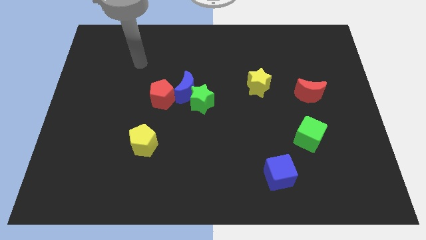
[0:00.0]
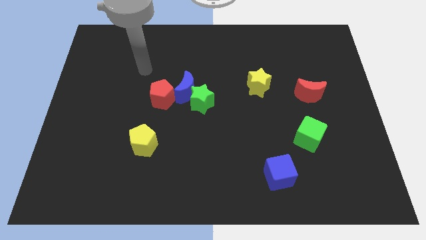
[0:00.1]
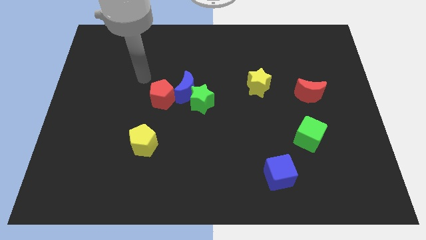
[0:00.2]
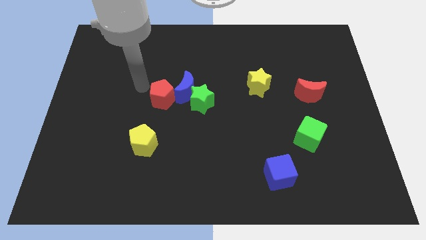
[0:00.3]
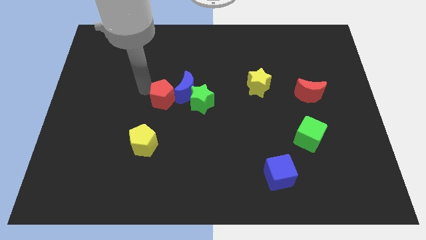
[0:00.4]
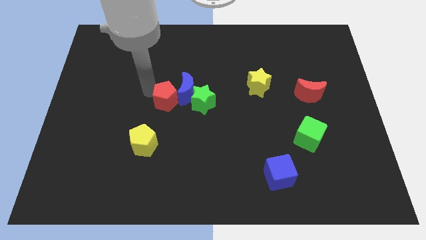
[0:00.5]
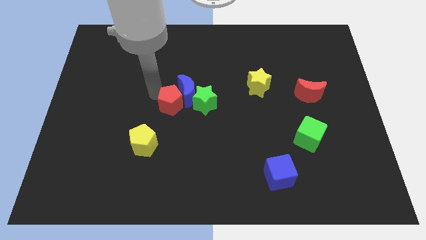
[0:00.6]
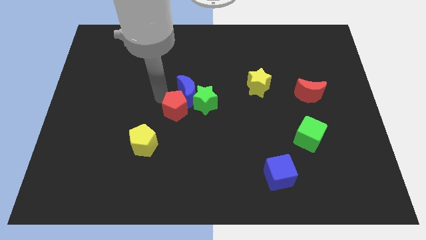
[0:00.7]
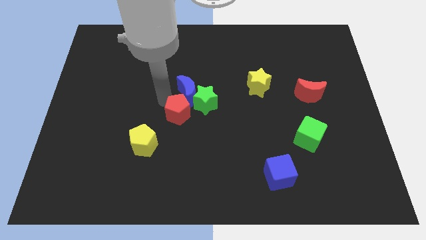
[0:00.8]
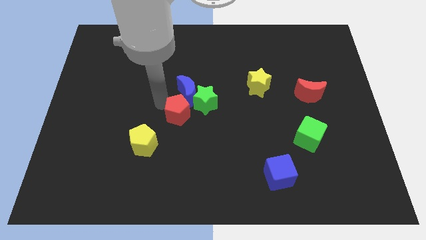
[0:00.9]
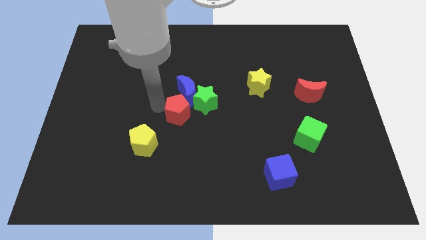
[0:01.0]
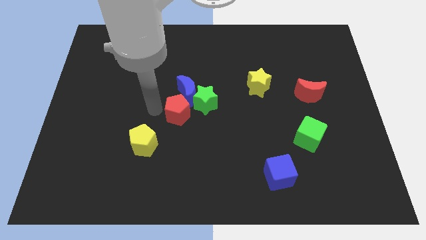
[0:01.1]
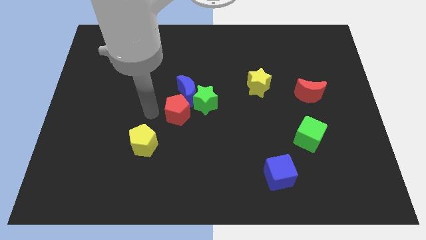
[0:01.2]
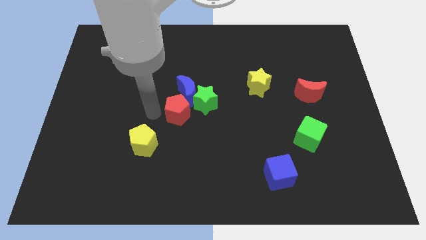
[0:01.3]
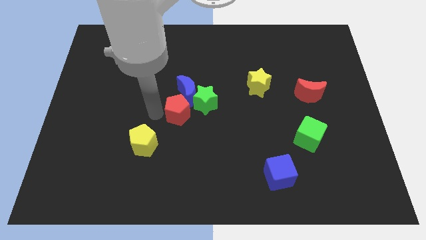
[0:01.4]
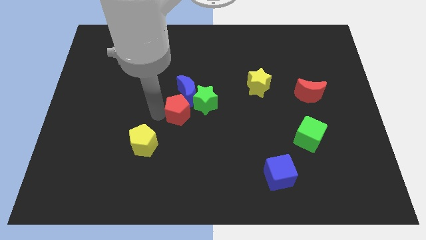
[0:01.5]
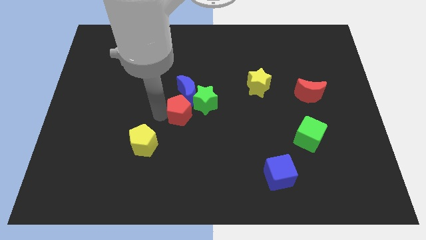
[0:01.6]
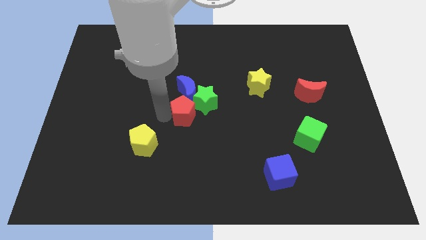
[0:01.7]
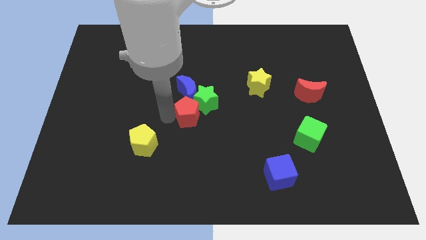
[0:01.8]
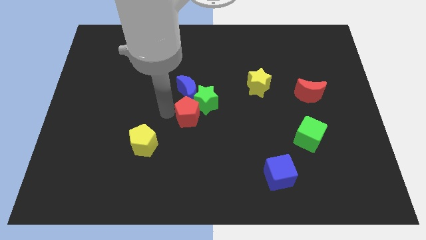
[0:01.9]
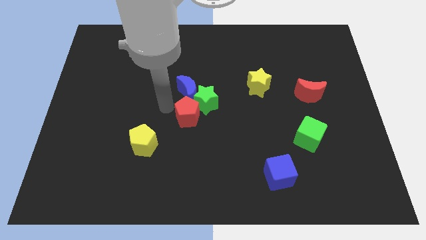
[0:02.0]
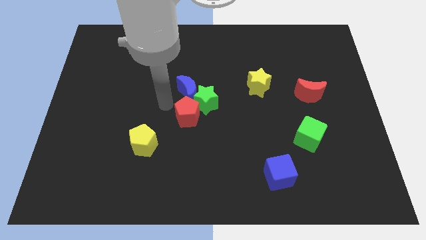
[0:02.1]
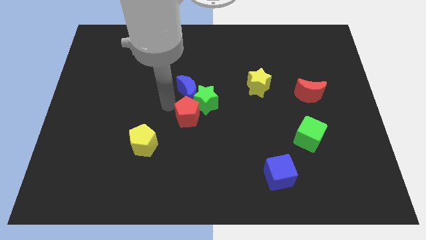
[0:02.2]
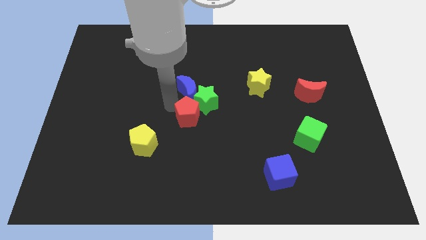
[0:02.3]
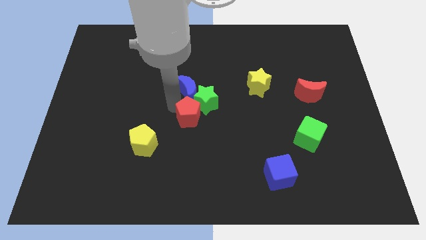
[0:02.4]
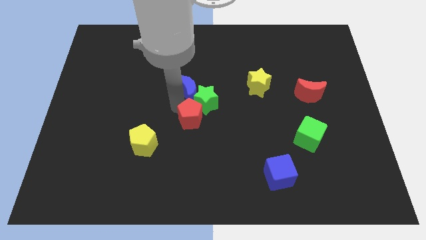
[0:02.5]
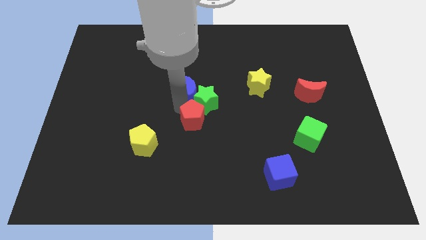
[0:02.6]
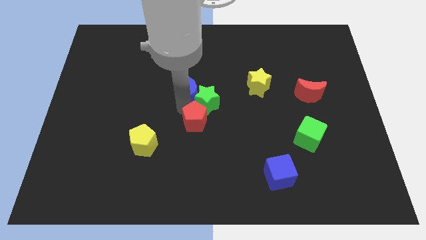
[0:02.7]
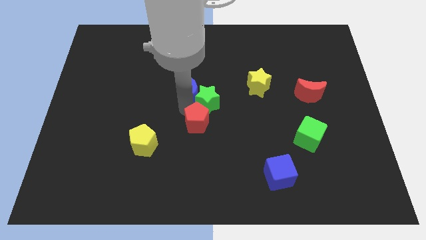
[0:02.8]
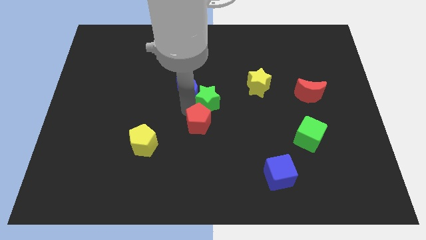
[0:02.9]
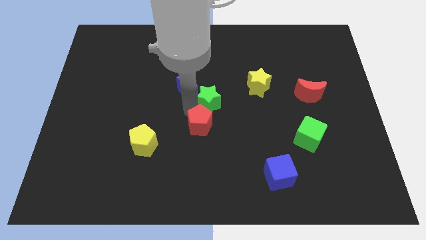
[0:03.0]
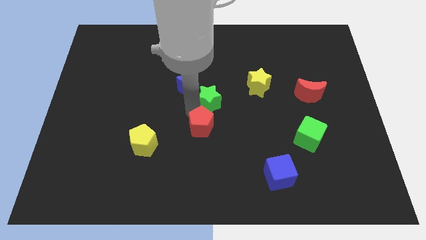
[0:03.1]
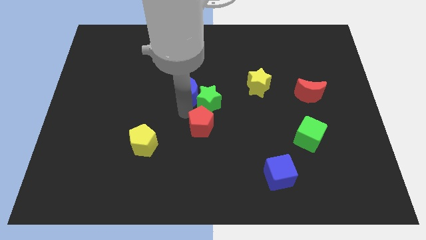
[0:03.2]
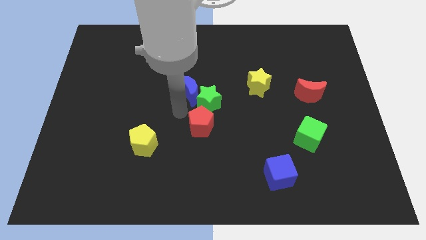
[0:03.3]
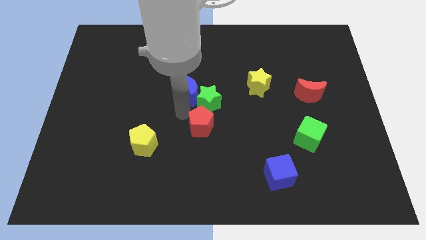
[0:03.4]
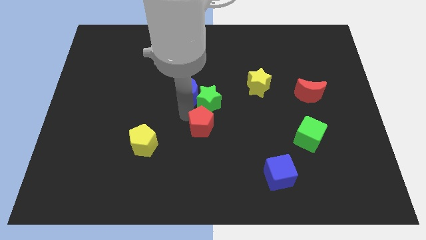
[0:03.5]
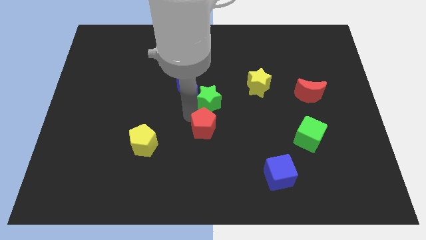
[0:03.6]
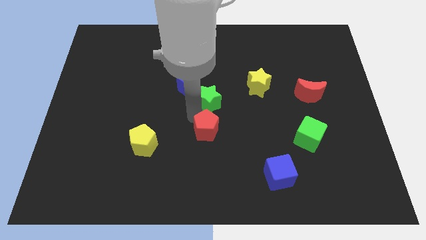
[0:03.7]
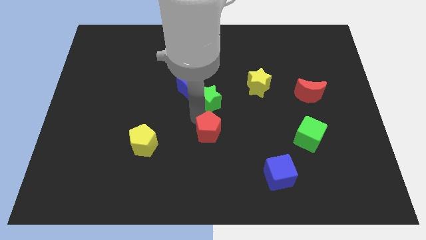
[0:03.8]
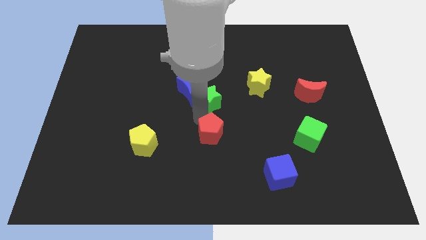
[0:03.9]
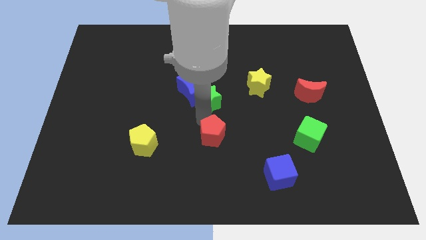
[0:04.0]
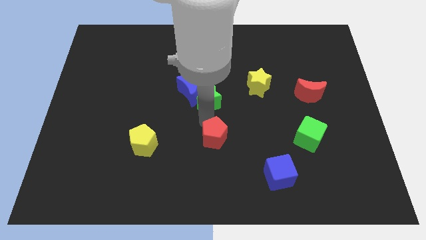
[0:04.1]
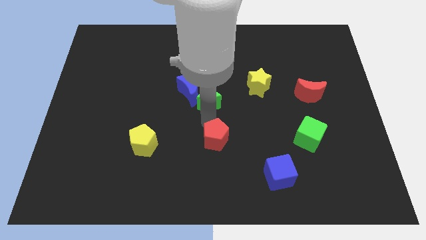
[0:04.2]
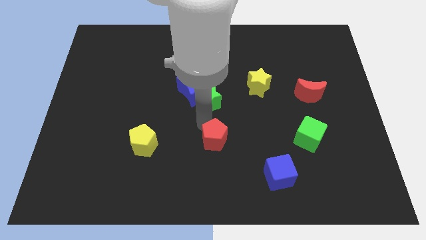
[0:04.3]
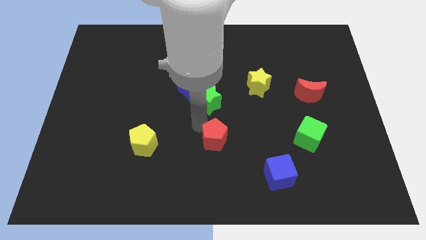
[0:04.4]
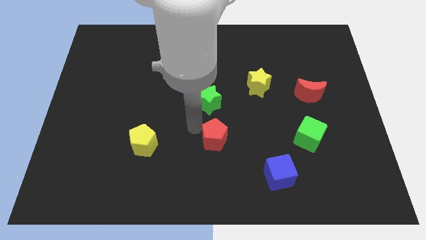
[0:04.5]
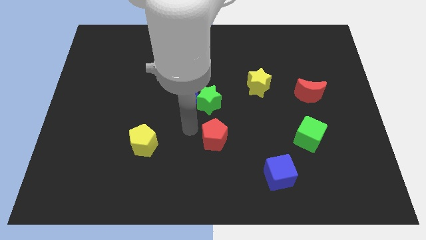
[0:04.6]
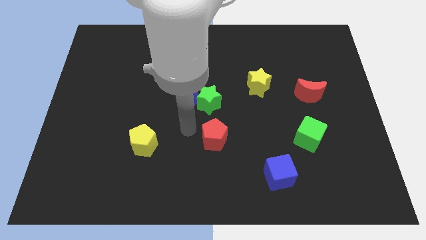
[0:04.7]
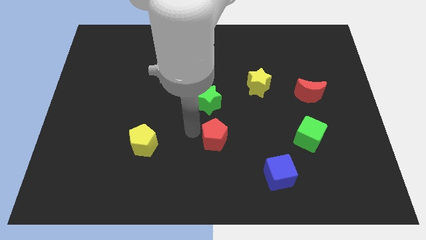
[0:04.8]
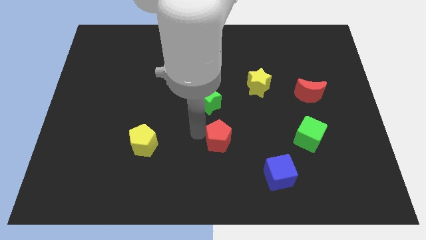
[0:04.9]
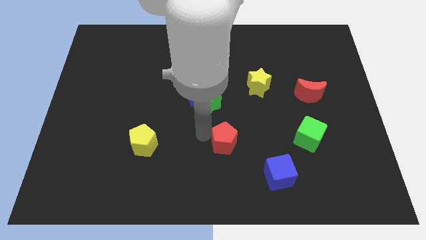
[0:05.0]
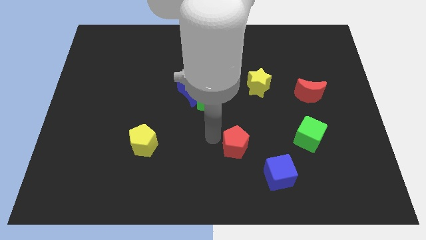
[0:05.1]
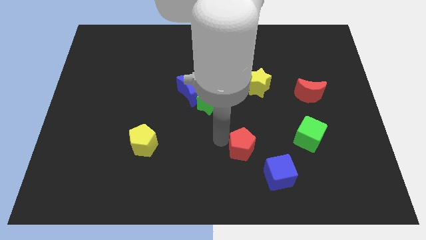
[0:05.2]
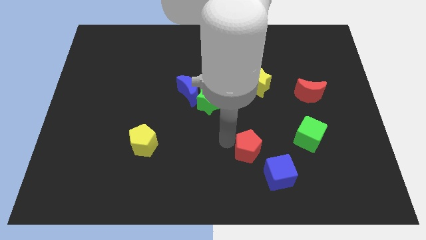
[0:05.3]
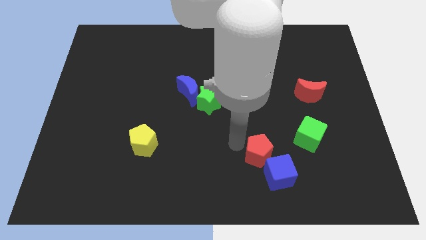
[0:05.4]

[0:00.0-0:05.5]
put the red pentagon next to the blue cube

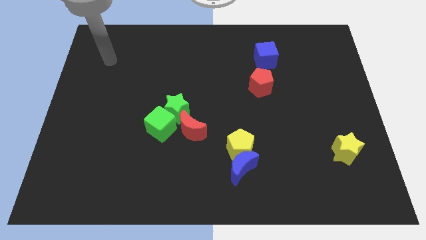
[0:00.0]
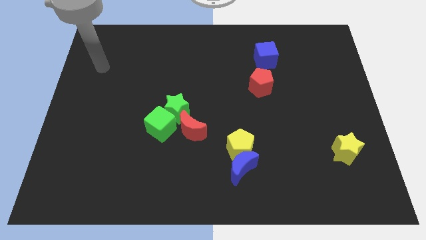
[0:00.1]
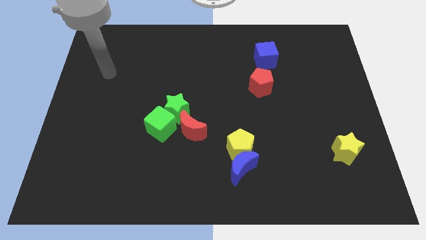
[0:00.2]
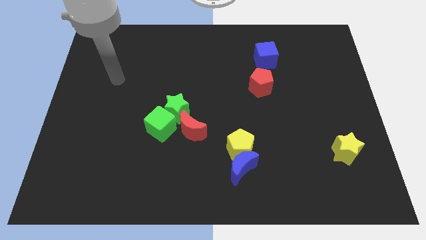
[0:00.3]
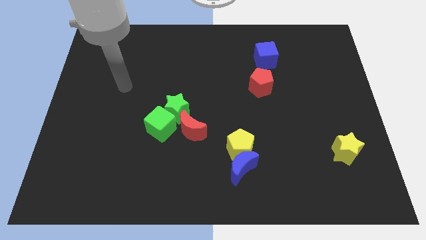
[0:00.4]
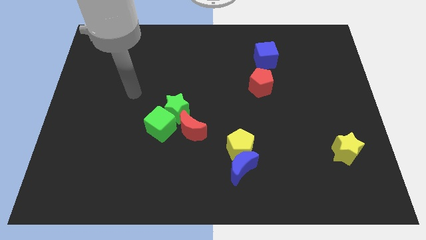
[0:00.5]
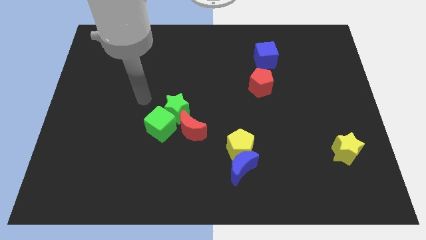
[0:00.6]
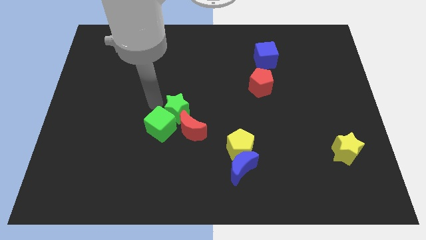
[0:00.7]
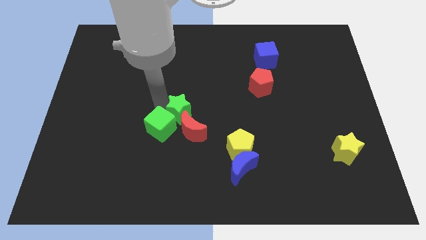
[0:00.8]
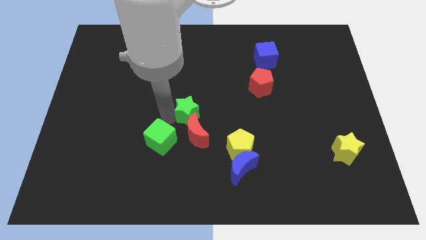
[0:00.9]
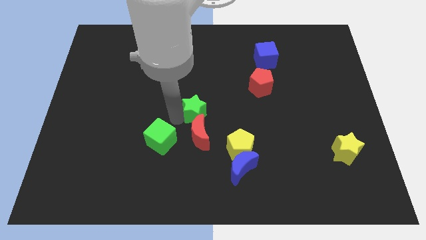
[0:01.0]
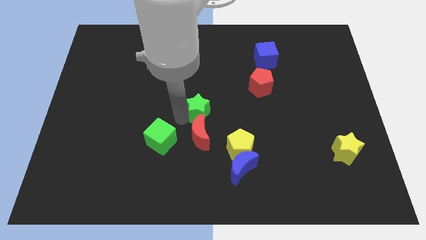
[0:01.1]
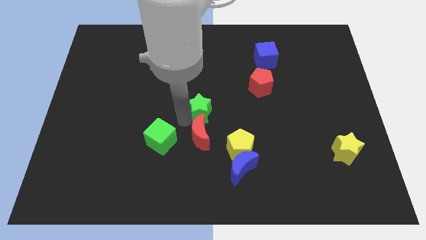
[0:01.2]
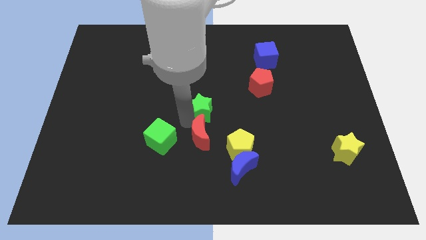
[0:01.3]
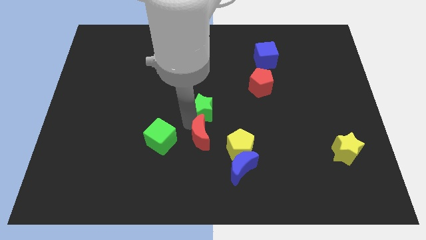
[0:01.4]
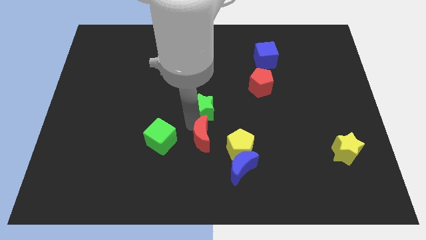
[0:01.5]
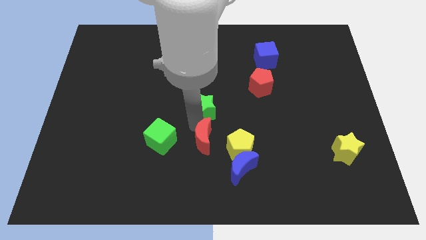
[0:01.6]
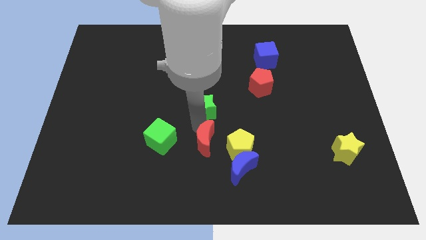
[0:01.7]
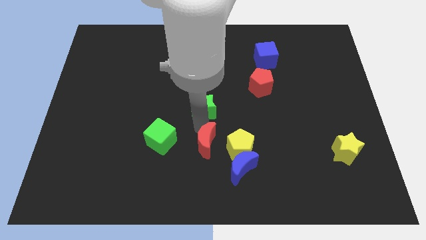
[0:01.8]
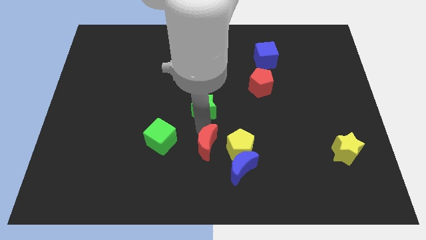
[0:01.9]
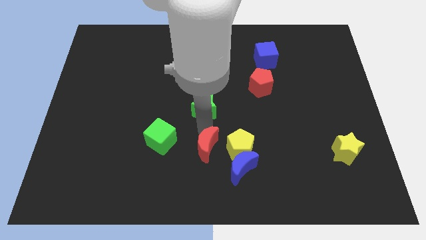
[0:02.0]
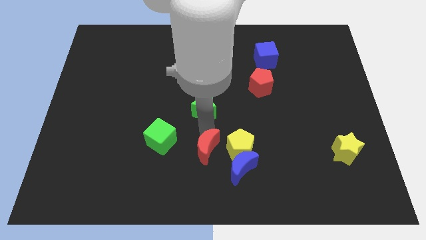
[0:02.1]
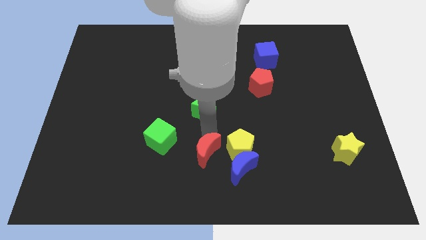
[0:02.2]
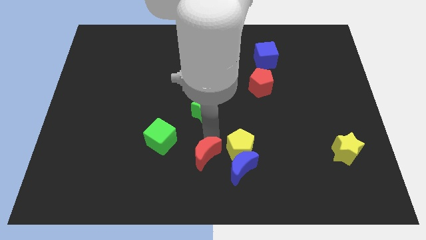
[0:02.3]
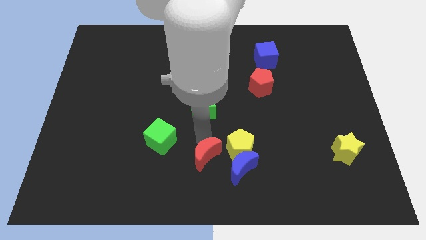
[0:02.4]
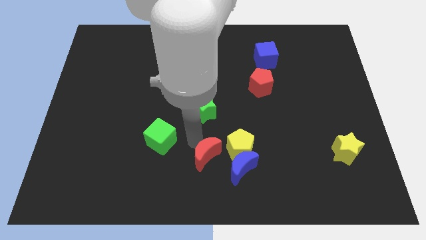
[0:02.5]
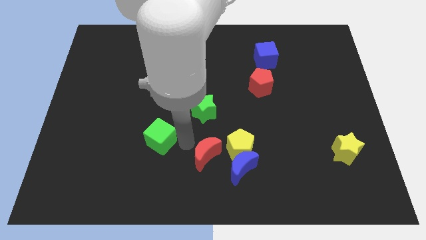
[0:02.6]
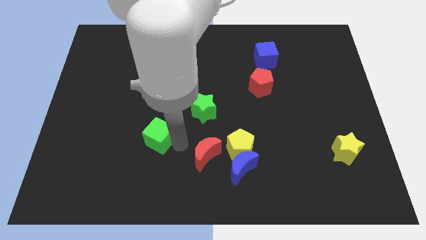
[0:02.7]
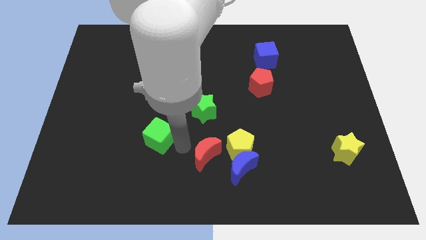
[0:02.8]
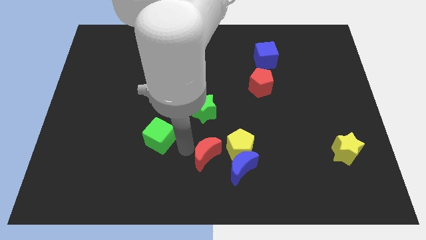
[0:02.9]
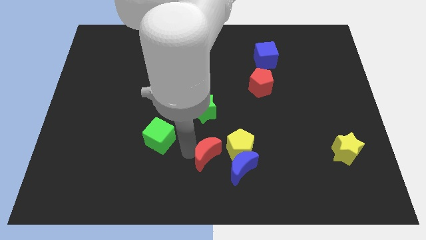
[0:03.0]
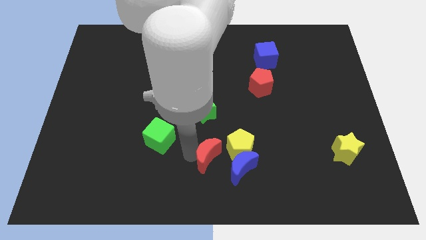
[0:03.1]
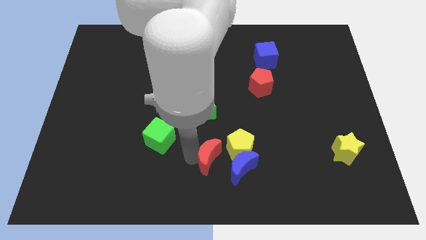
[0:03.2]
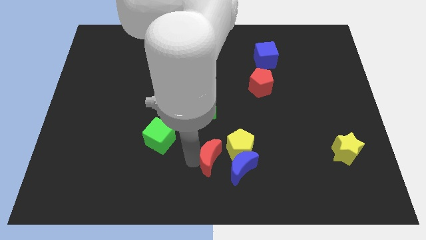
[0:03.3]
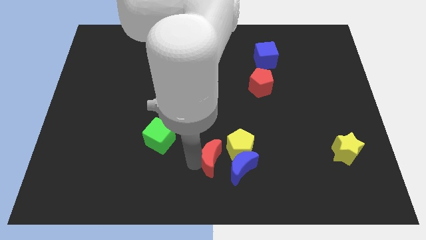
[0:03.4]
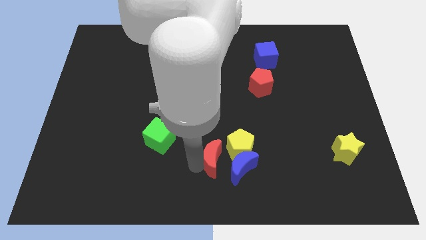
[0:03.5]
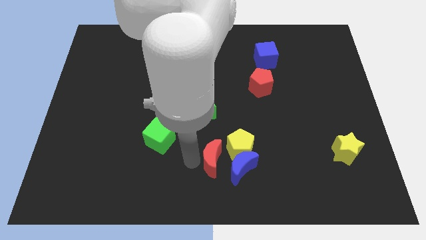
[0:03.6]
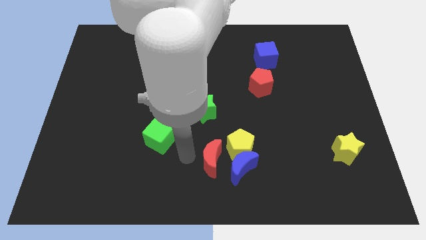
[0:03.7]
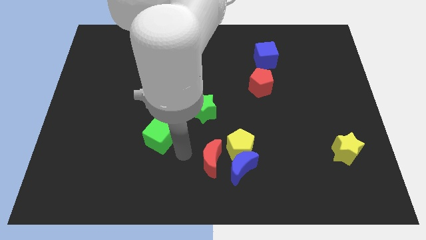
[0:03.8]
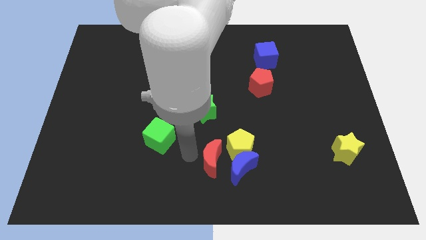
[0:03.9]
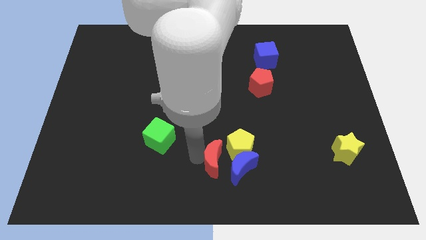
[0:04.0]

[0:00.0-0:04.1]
put the red moon towards the blue moon
